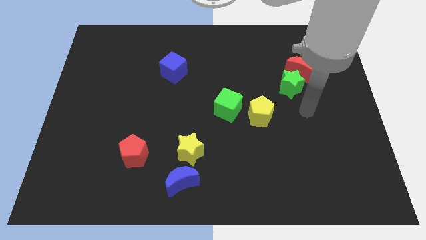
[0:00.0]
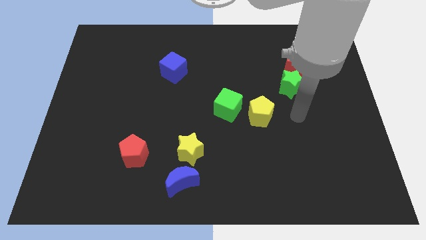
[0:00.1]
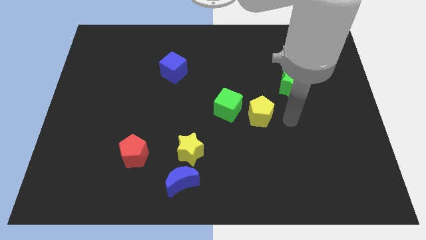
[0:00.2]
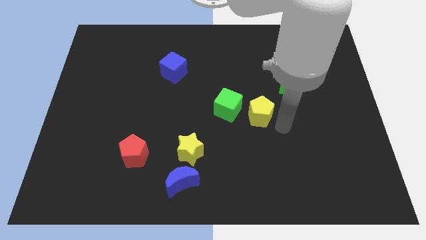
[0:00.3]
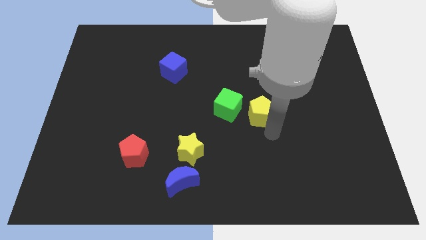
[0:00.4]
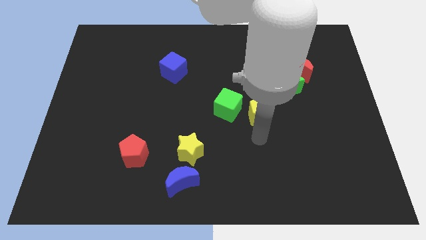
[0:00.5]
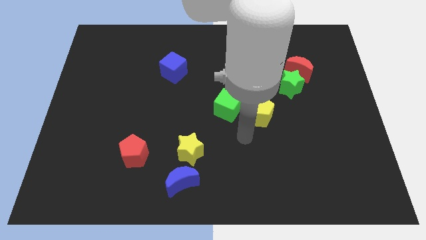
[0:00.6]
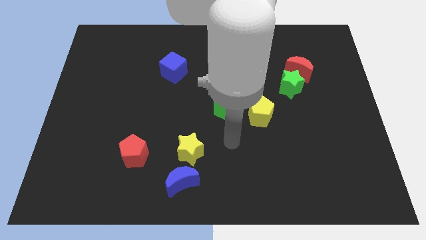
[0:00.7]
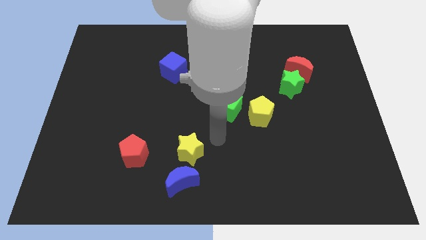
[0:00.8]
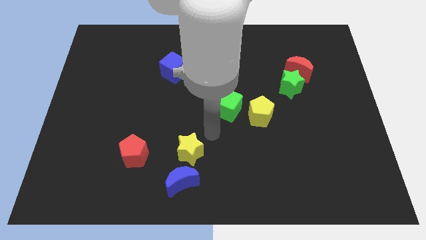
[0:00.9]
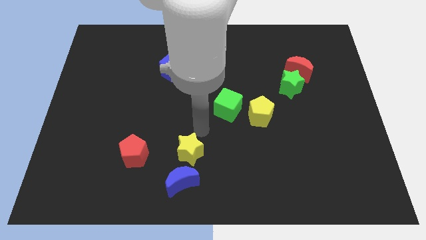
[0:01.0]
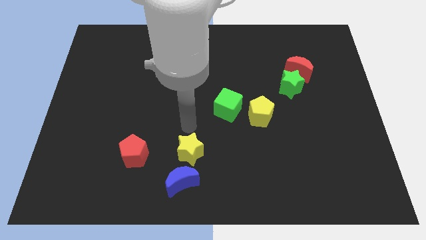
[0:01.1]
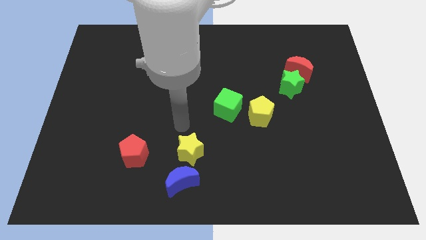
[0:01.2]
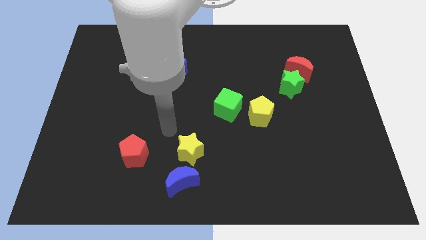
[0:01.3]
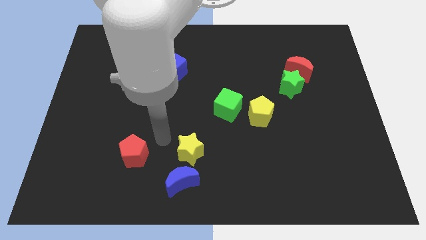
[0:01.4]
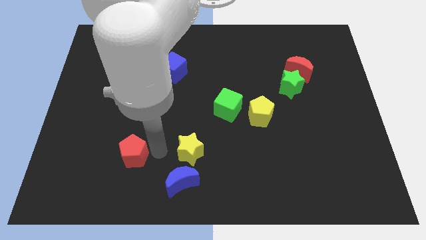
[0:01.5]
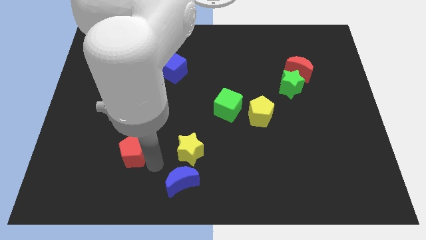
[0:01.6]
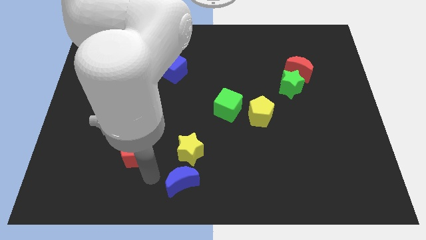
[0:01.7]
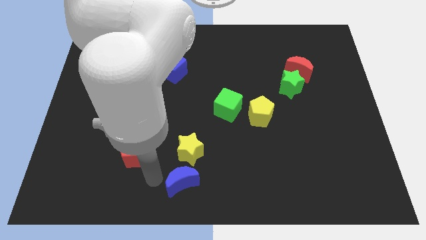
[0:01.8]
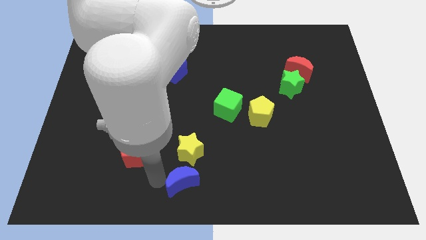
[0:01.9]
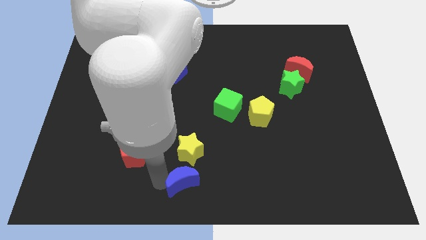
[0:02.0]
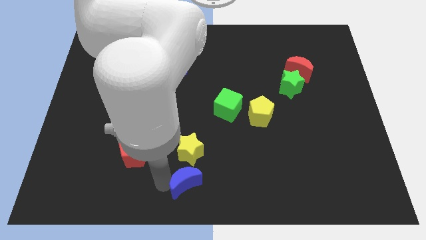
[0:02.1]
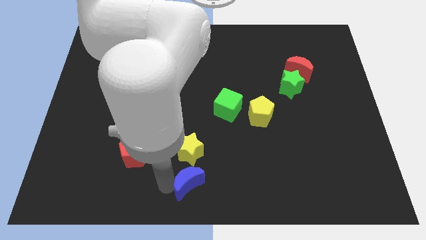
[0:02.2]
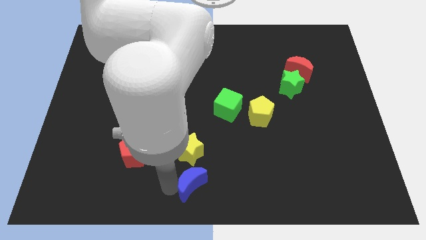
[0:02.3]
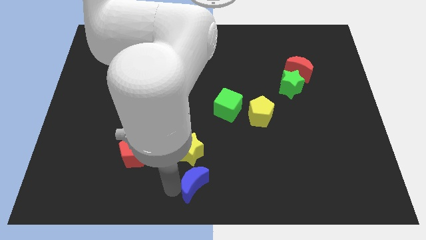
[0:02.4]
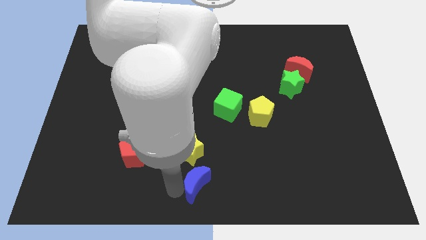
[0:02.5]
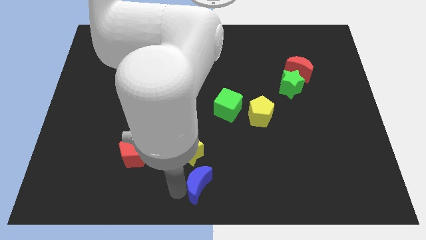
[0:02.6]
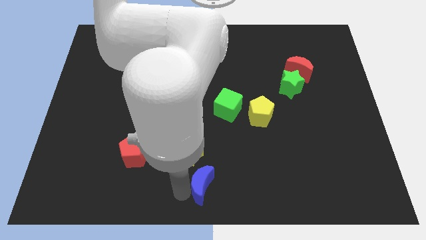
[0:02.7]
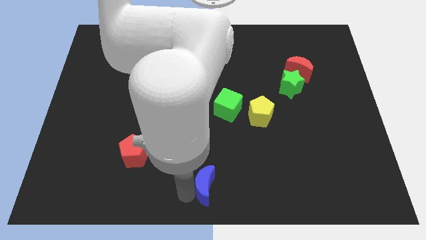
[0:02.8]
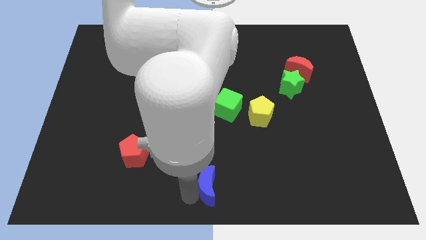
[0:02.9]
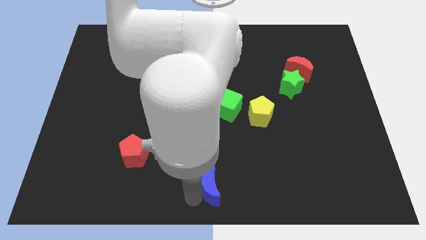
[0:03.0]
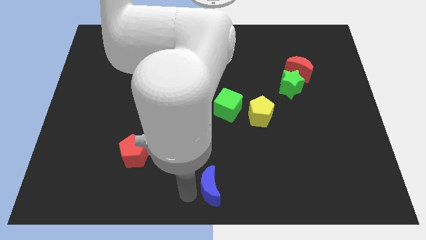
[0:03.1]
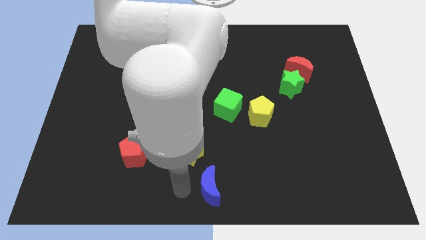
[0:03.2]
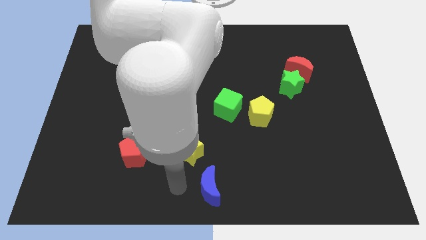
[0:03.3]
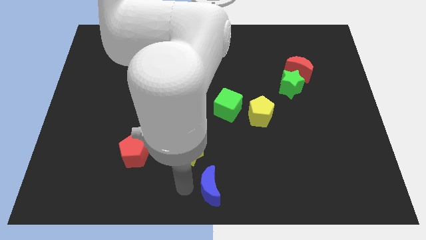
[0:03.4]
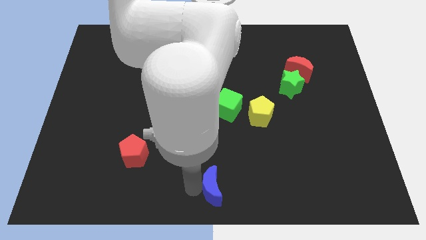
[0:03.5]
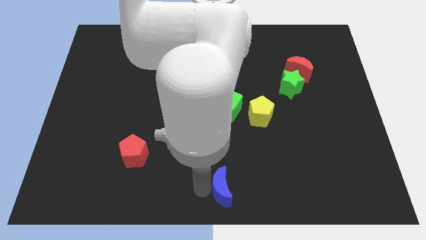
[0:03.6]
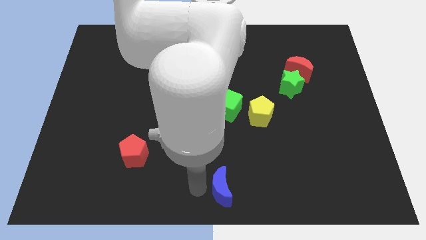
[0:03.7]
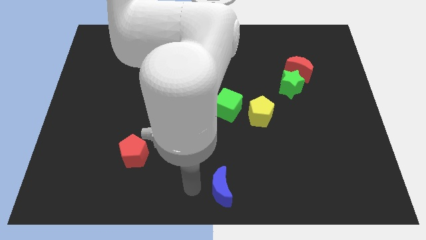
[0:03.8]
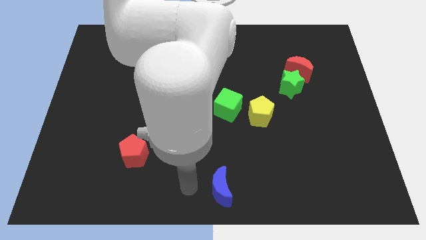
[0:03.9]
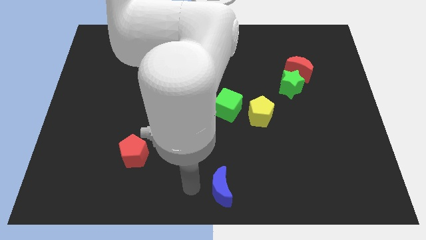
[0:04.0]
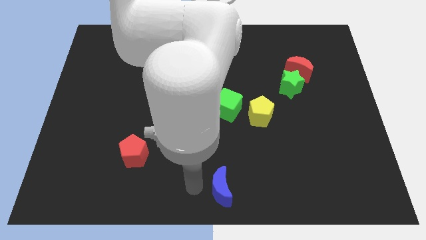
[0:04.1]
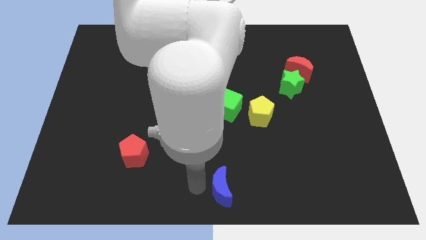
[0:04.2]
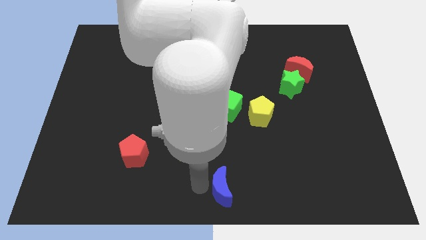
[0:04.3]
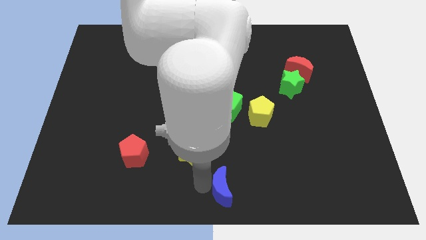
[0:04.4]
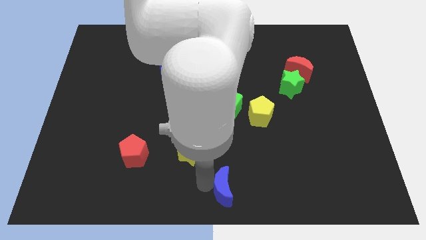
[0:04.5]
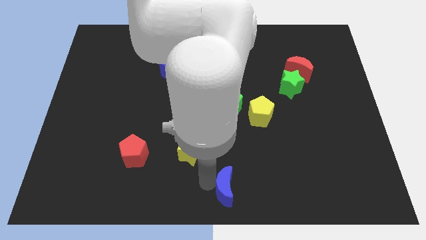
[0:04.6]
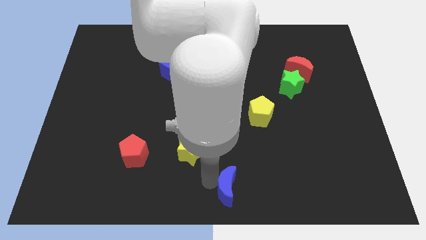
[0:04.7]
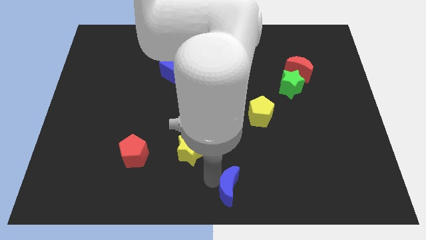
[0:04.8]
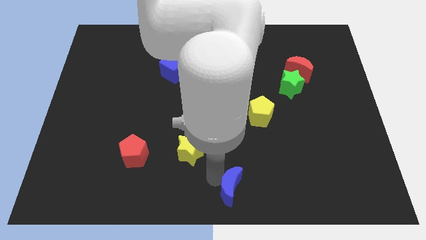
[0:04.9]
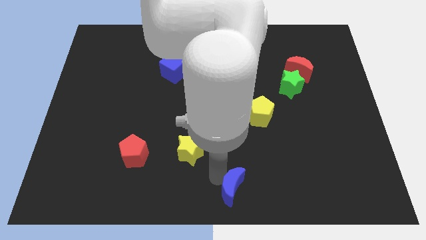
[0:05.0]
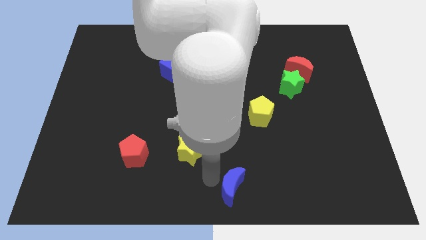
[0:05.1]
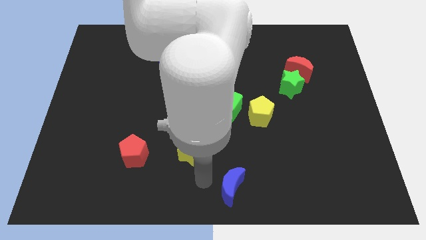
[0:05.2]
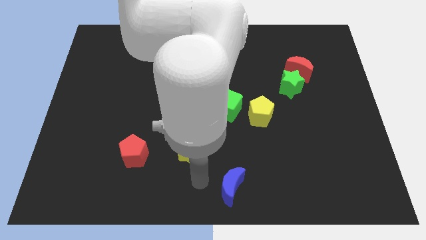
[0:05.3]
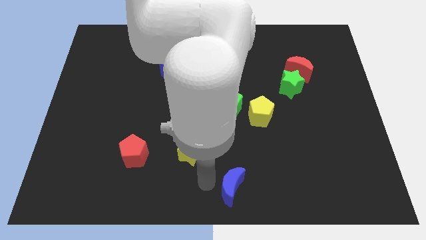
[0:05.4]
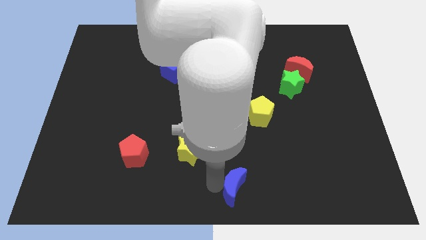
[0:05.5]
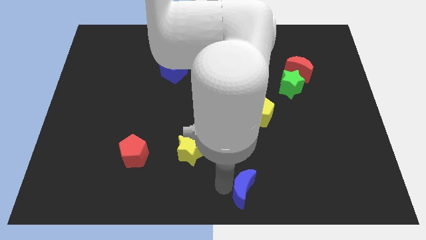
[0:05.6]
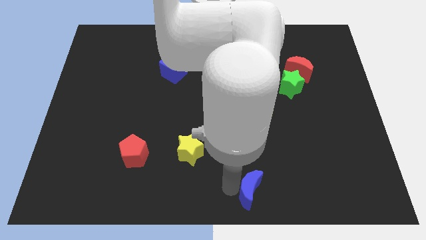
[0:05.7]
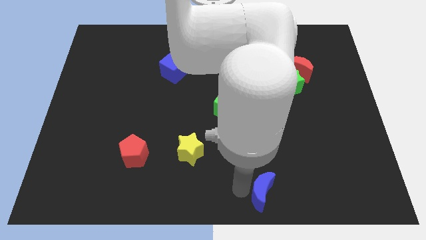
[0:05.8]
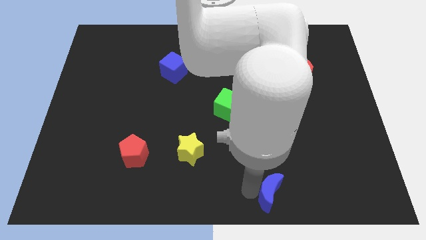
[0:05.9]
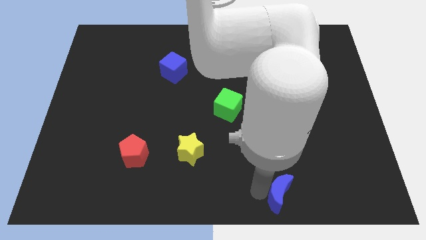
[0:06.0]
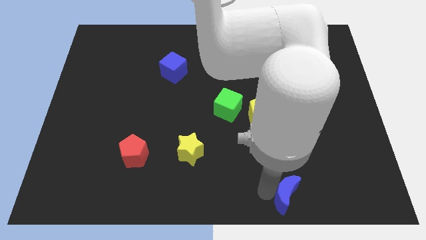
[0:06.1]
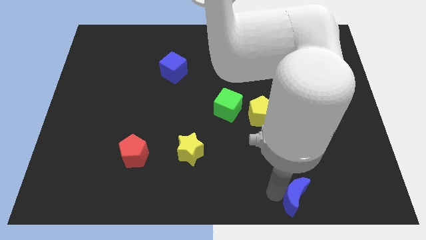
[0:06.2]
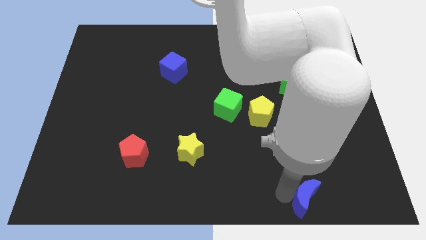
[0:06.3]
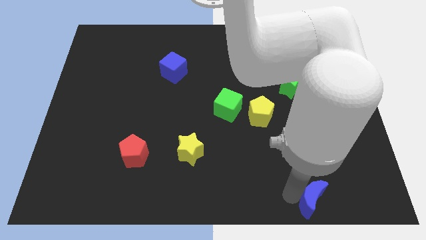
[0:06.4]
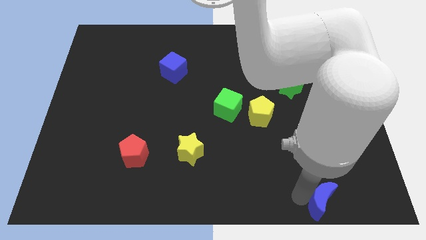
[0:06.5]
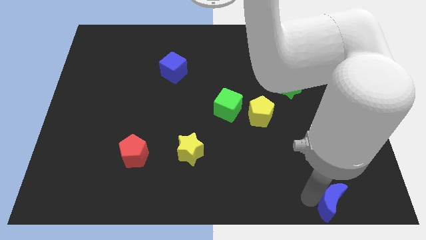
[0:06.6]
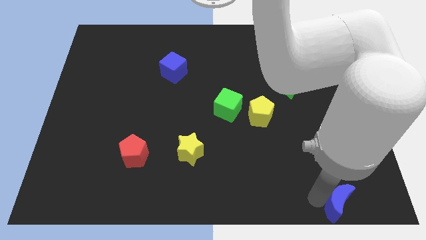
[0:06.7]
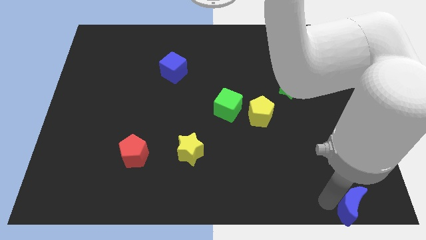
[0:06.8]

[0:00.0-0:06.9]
push the blue moon to the lower right corner

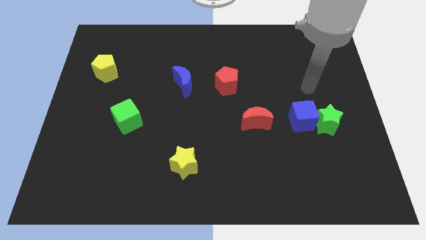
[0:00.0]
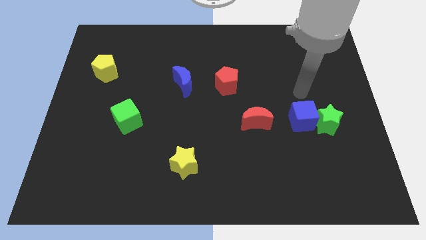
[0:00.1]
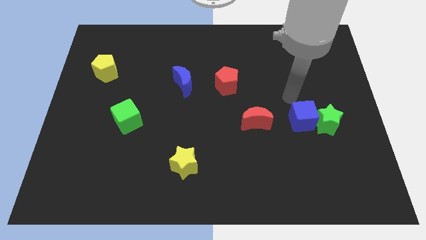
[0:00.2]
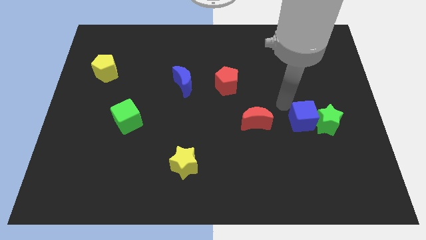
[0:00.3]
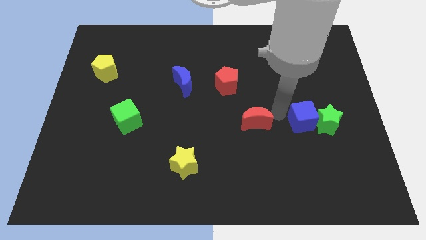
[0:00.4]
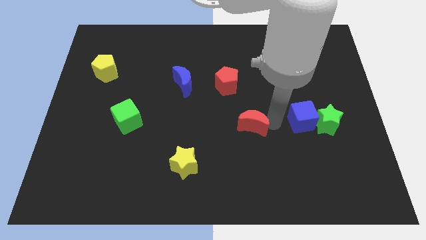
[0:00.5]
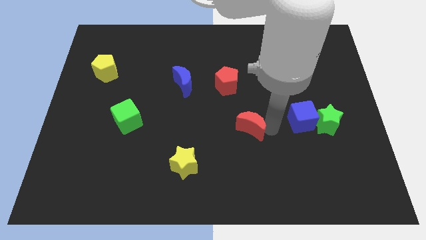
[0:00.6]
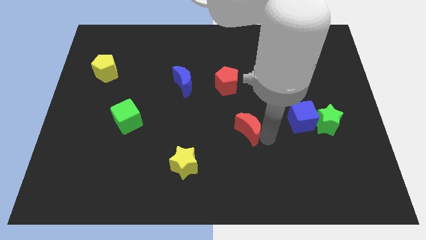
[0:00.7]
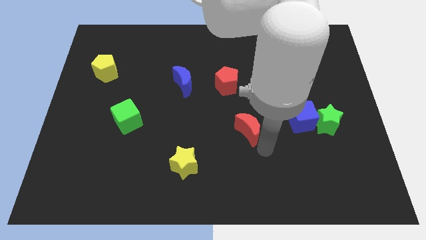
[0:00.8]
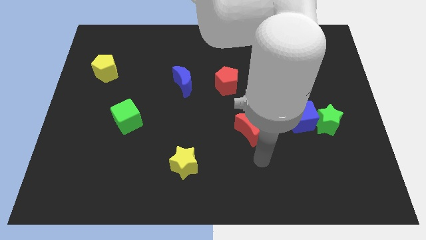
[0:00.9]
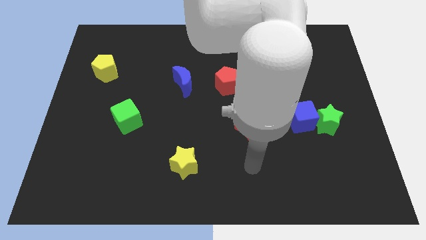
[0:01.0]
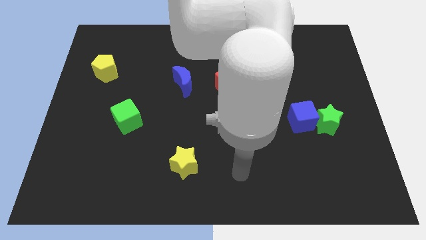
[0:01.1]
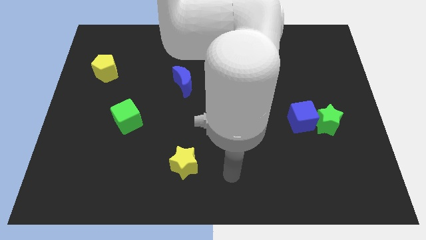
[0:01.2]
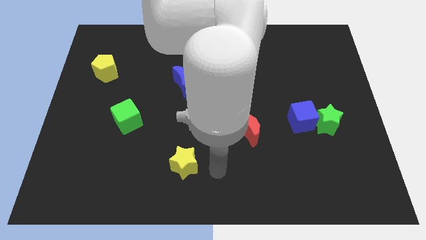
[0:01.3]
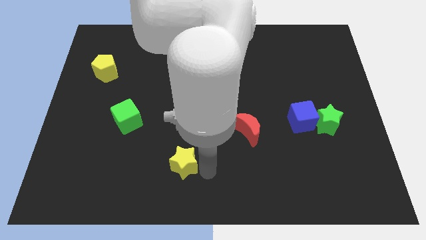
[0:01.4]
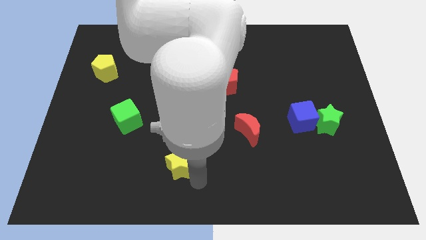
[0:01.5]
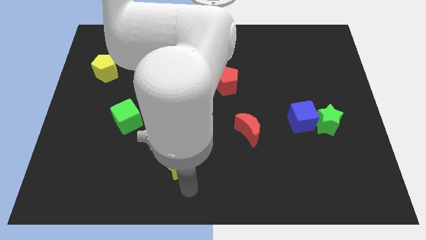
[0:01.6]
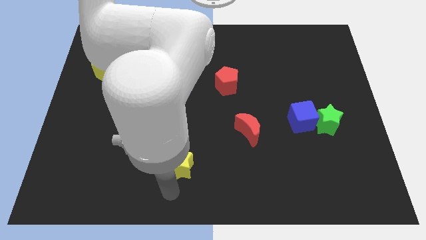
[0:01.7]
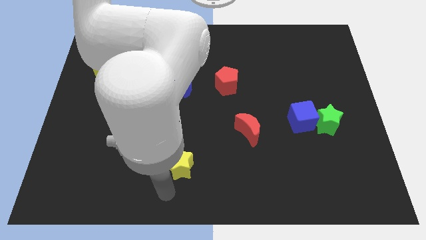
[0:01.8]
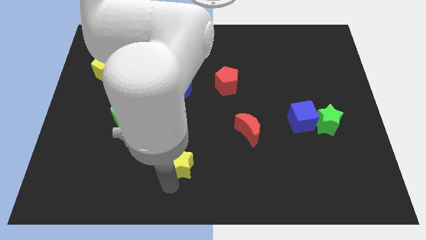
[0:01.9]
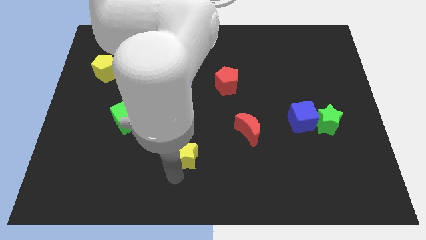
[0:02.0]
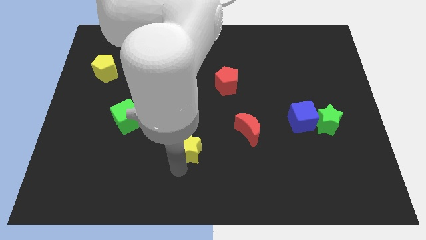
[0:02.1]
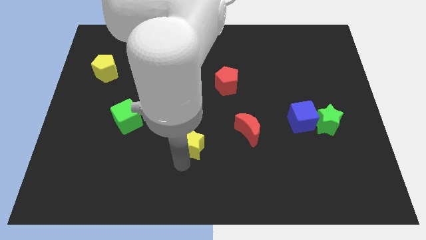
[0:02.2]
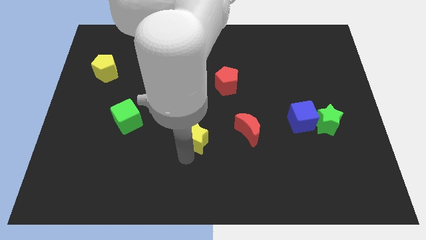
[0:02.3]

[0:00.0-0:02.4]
put the yellow star to the middle of the board
